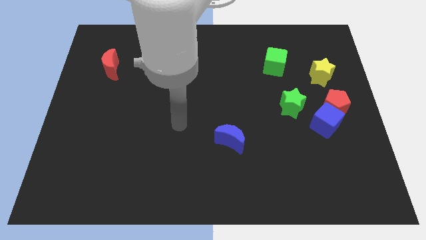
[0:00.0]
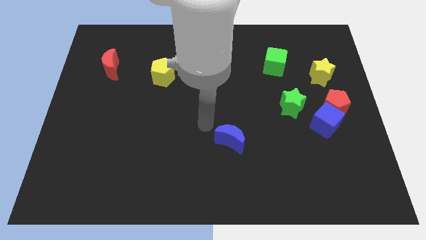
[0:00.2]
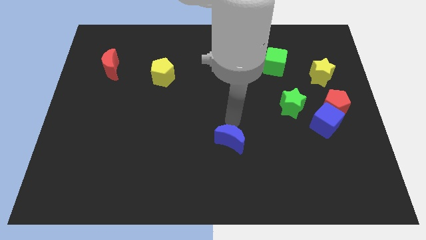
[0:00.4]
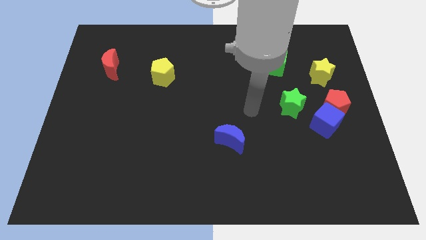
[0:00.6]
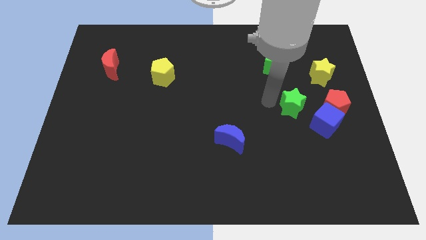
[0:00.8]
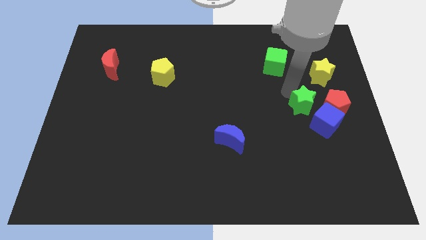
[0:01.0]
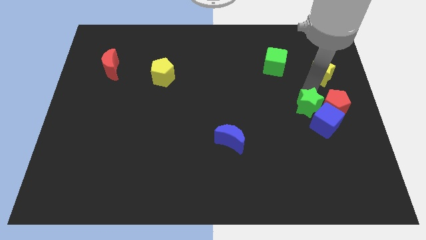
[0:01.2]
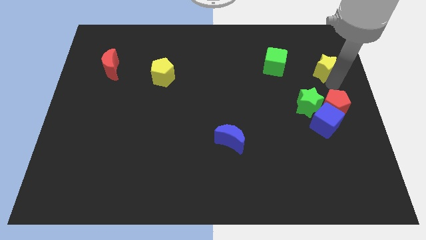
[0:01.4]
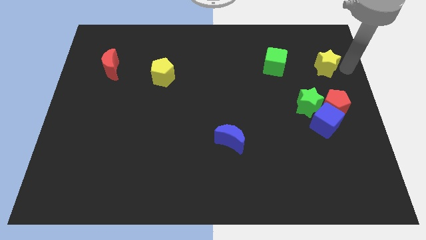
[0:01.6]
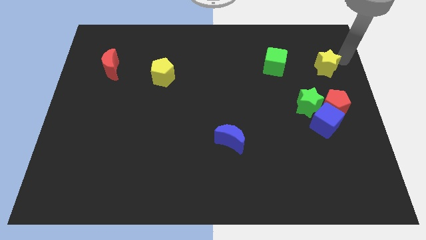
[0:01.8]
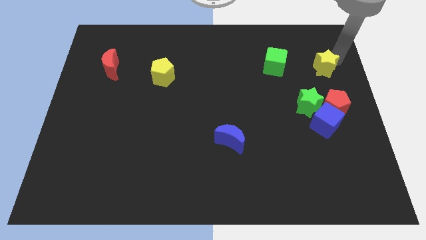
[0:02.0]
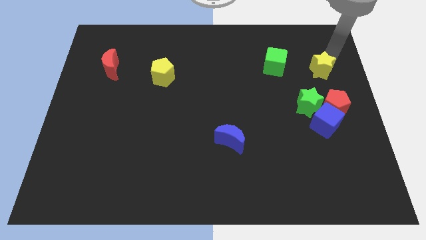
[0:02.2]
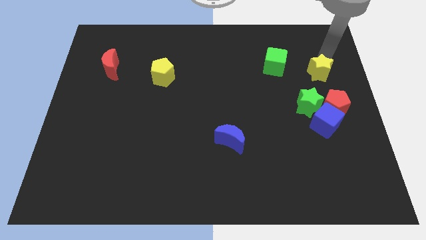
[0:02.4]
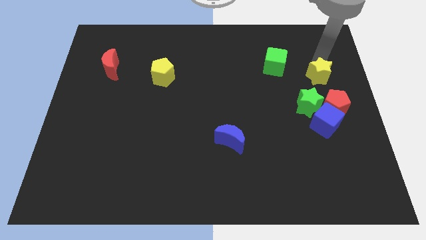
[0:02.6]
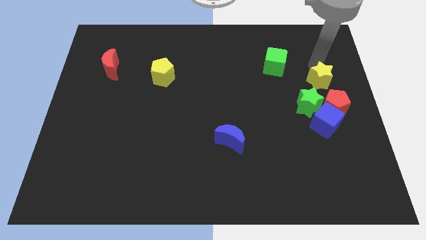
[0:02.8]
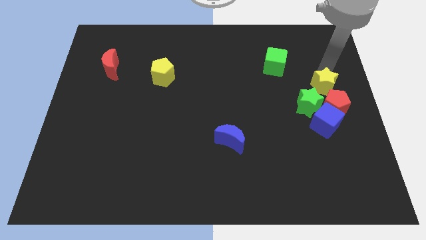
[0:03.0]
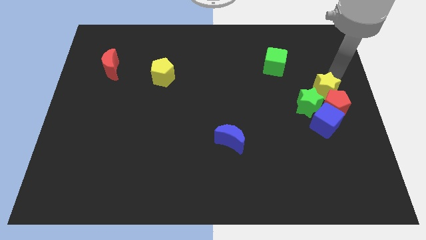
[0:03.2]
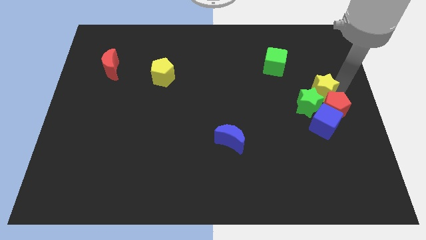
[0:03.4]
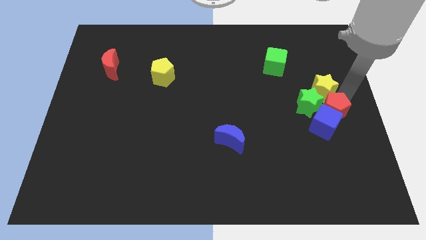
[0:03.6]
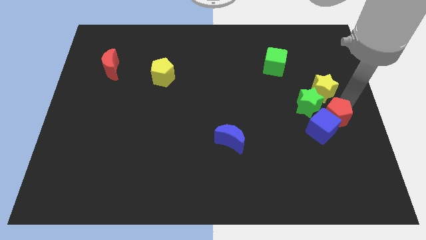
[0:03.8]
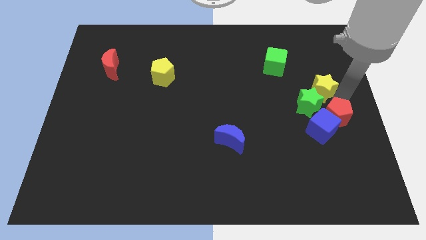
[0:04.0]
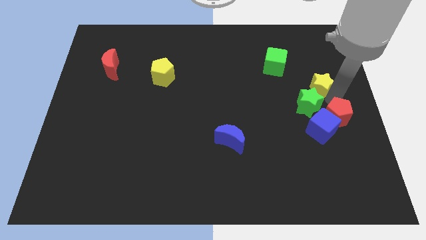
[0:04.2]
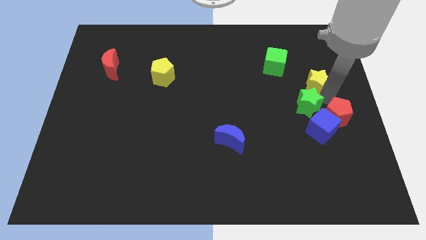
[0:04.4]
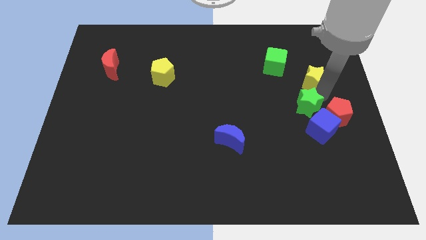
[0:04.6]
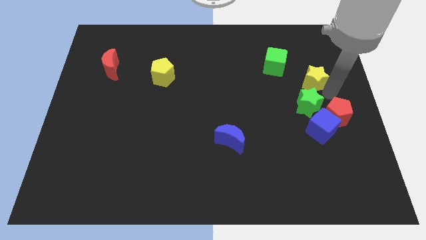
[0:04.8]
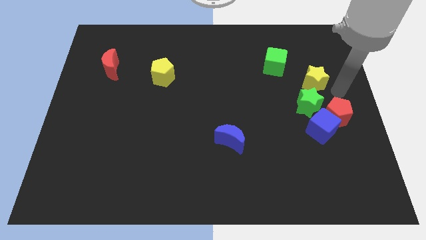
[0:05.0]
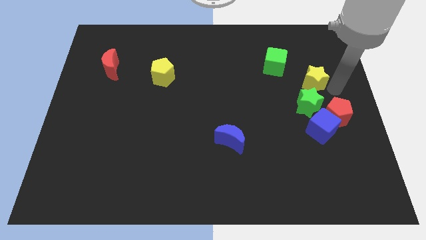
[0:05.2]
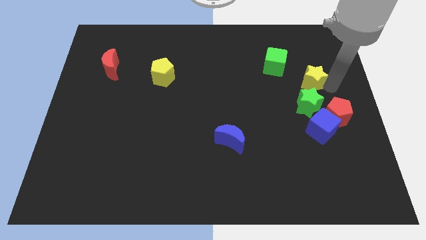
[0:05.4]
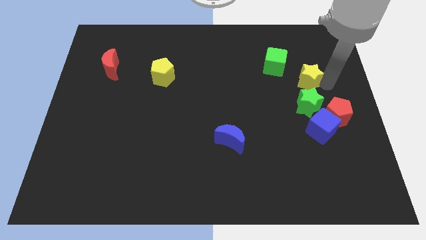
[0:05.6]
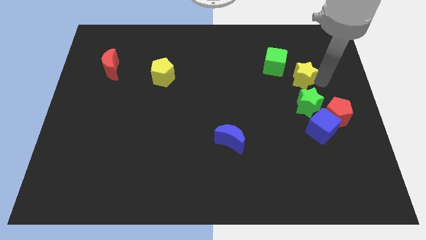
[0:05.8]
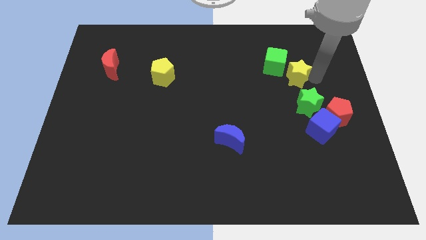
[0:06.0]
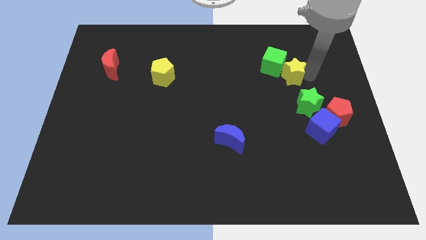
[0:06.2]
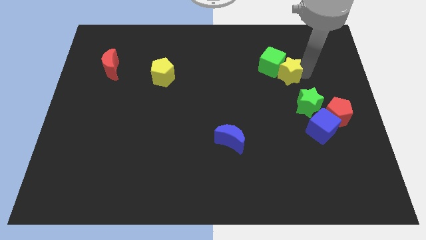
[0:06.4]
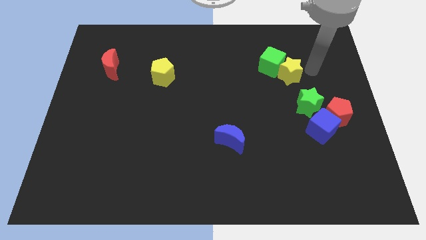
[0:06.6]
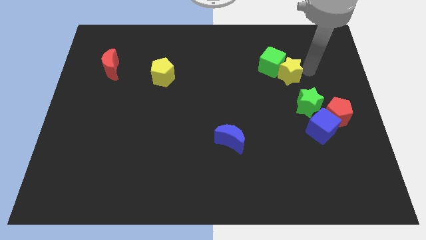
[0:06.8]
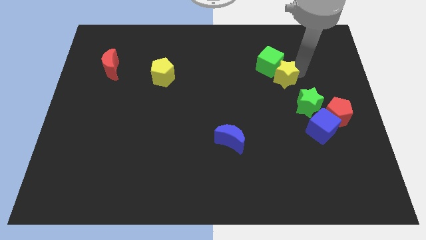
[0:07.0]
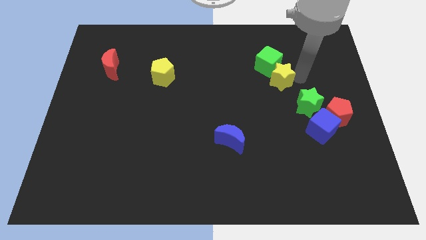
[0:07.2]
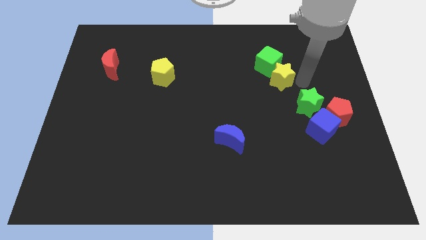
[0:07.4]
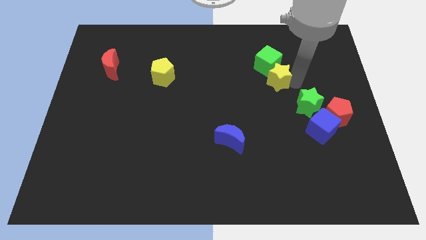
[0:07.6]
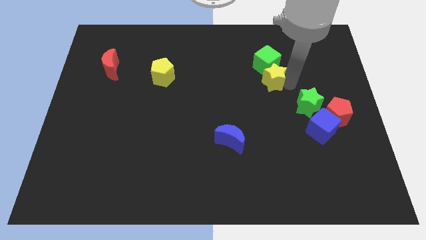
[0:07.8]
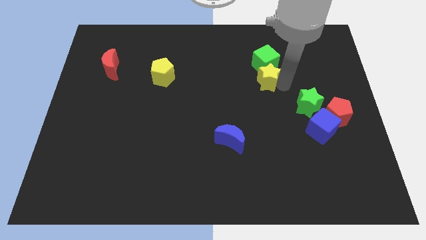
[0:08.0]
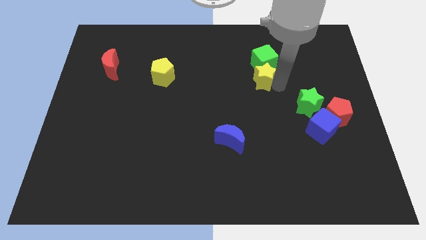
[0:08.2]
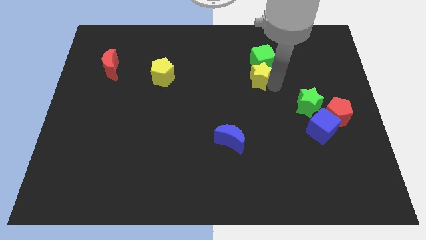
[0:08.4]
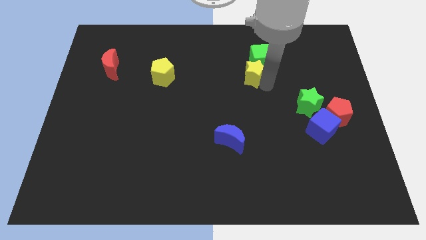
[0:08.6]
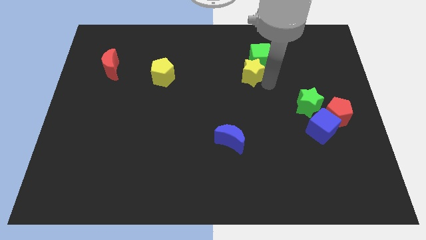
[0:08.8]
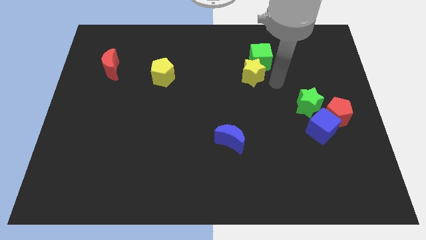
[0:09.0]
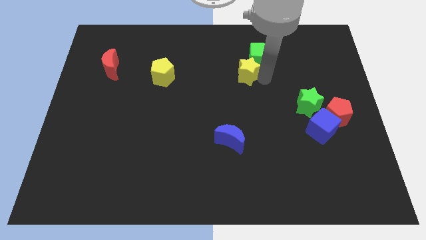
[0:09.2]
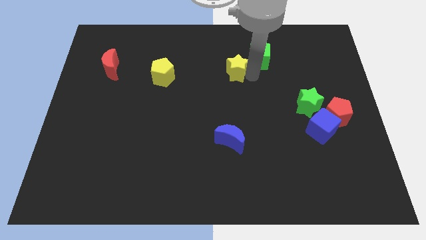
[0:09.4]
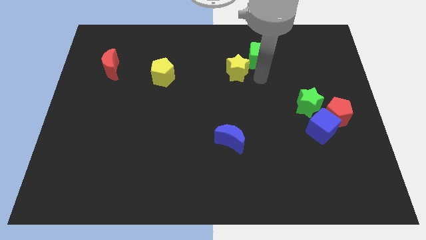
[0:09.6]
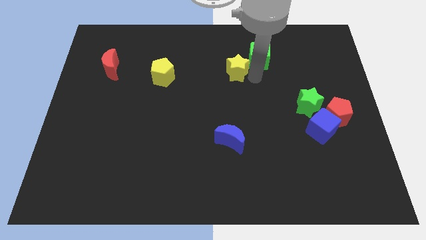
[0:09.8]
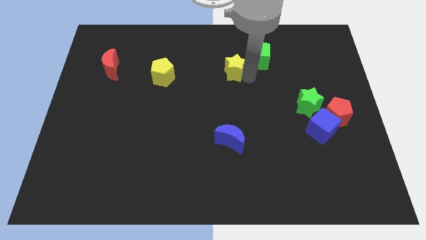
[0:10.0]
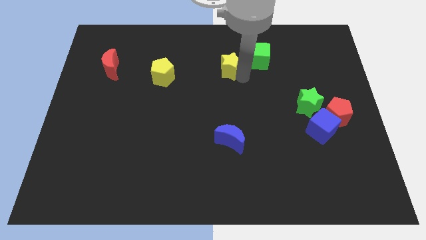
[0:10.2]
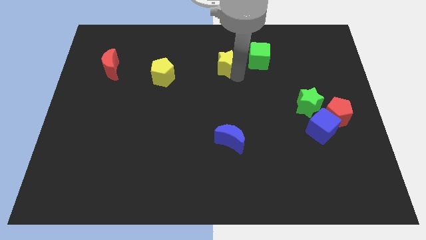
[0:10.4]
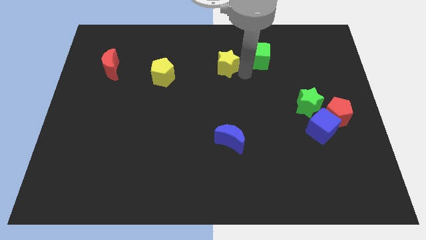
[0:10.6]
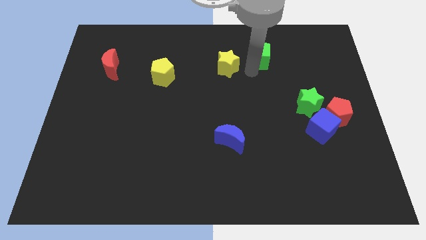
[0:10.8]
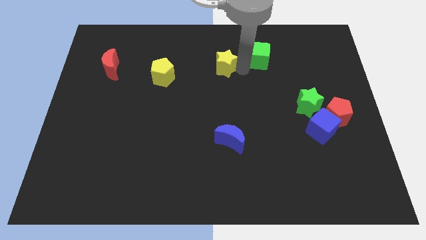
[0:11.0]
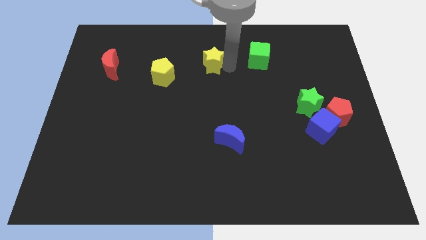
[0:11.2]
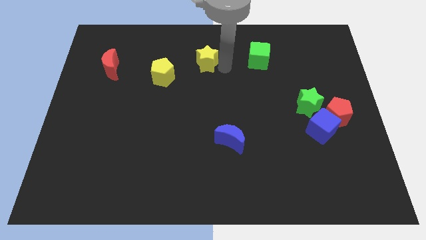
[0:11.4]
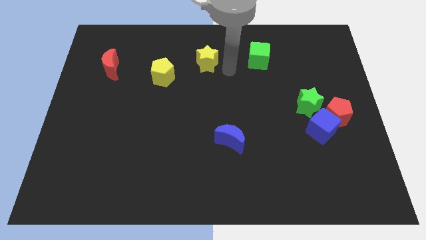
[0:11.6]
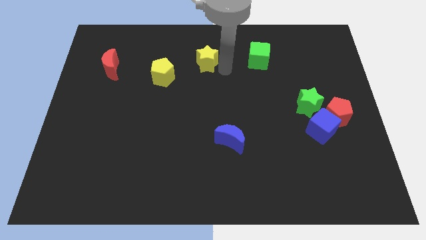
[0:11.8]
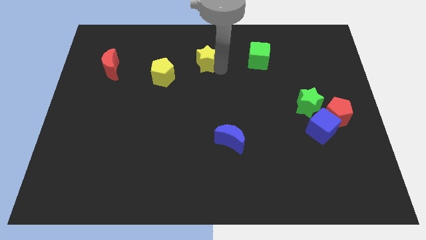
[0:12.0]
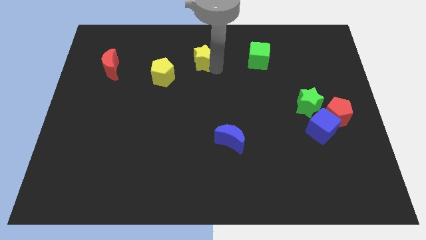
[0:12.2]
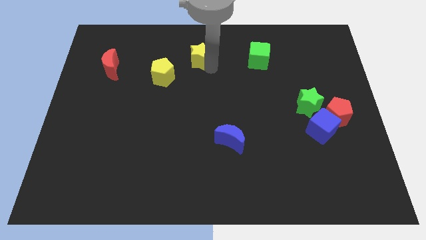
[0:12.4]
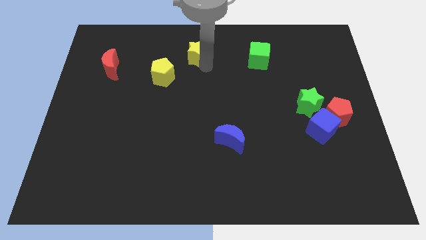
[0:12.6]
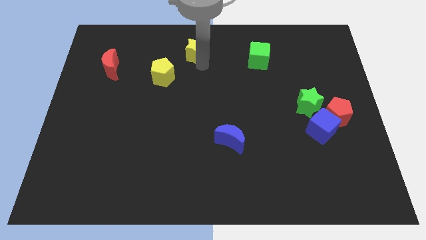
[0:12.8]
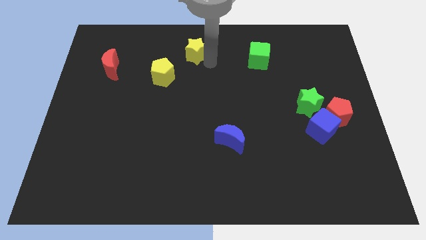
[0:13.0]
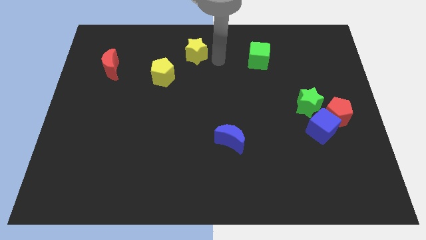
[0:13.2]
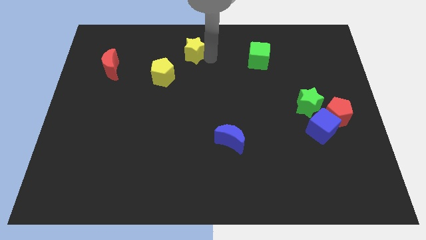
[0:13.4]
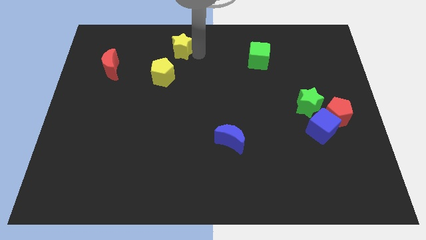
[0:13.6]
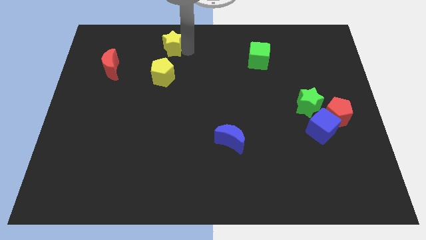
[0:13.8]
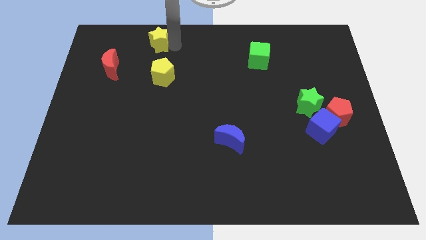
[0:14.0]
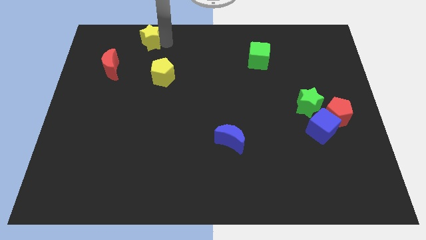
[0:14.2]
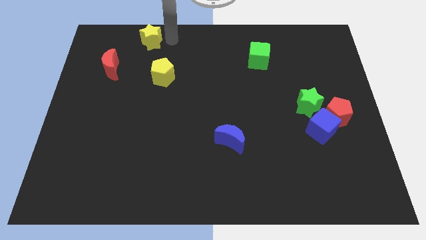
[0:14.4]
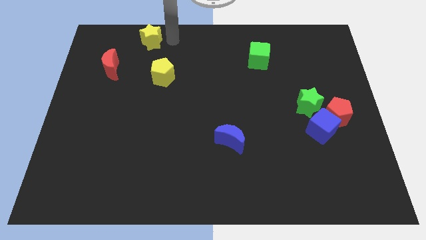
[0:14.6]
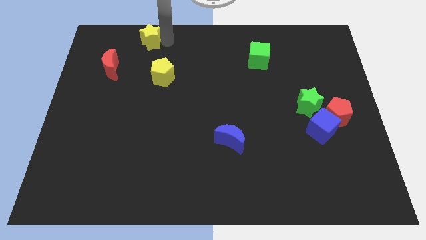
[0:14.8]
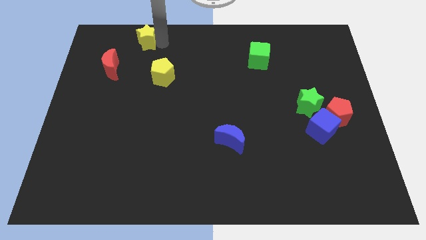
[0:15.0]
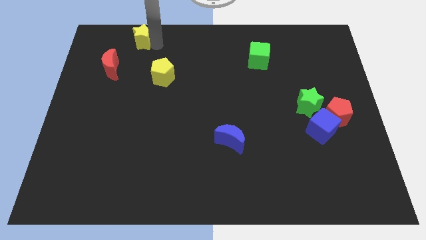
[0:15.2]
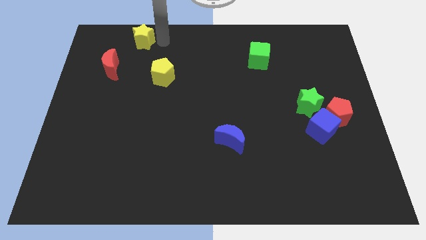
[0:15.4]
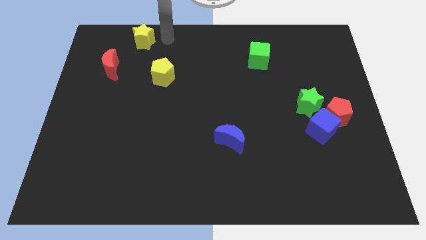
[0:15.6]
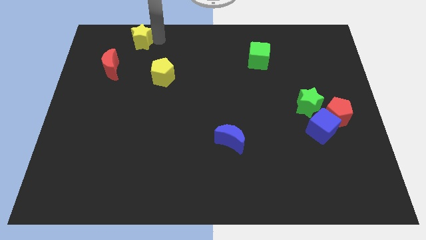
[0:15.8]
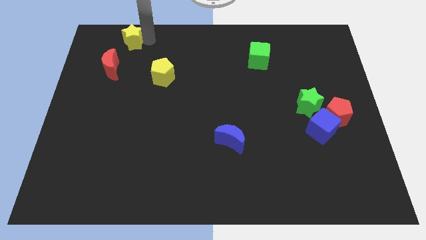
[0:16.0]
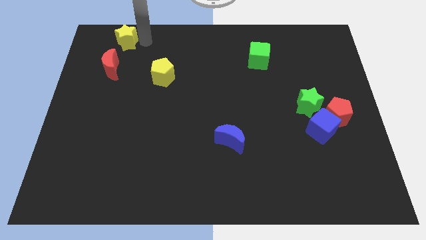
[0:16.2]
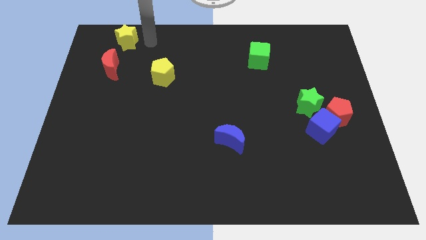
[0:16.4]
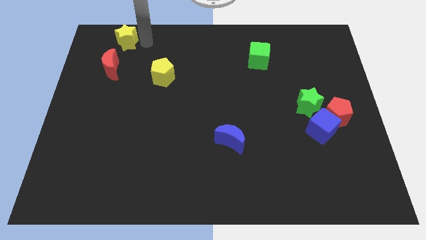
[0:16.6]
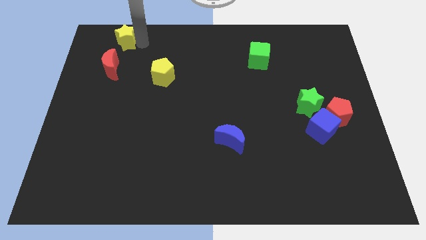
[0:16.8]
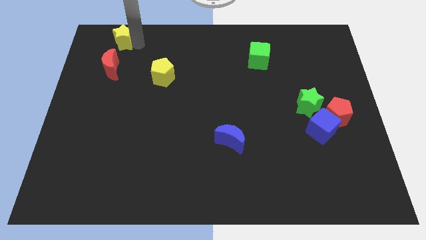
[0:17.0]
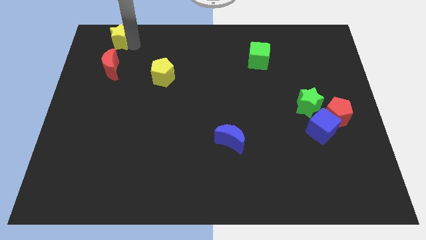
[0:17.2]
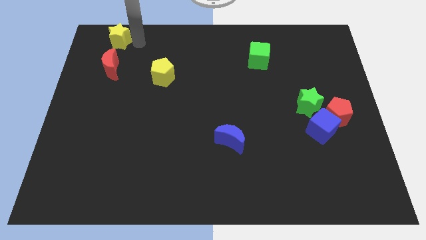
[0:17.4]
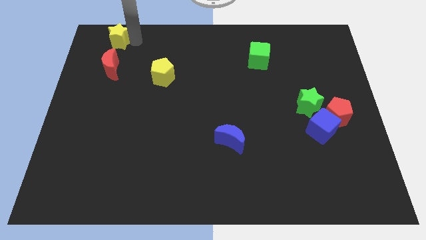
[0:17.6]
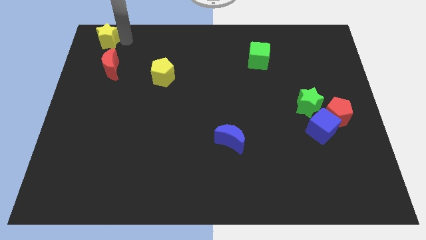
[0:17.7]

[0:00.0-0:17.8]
put the yellow star to the top left corner
